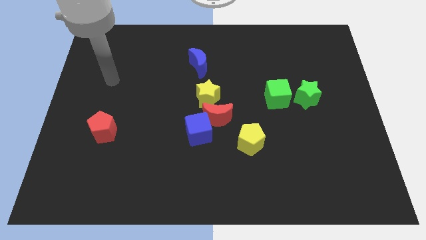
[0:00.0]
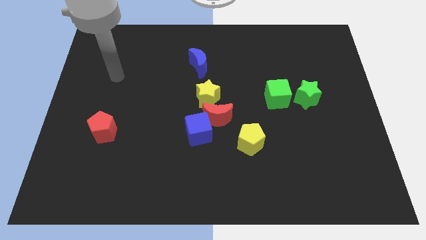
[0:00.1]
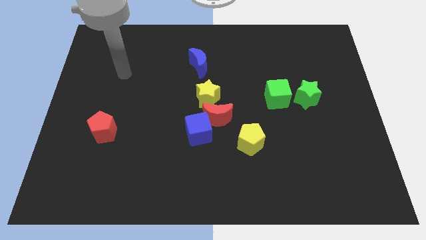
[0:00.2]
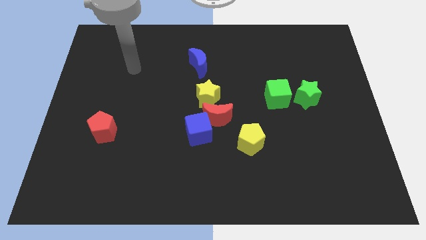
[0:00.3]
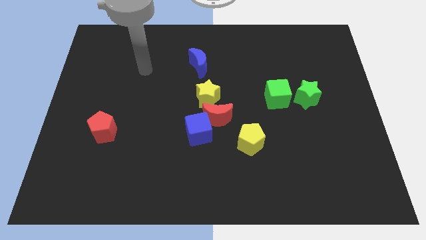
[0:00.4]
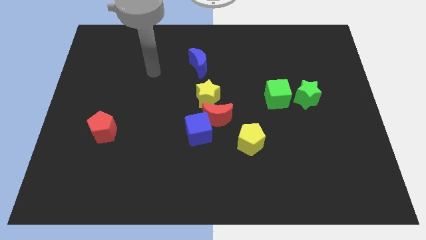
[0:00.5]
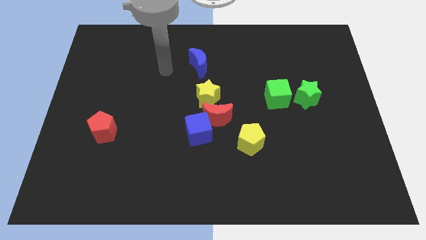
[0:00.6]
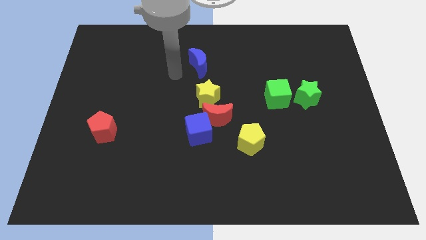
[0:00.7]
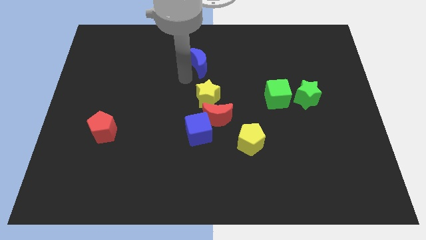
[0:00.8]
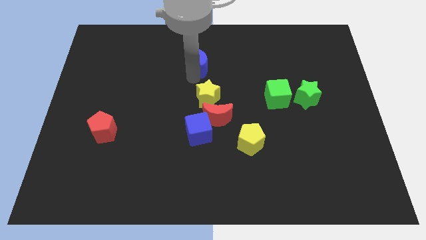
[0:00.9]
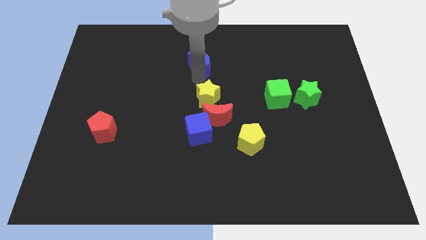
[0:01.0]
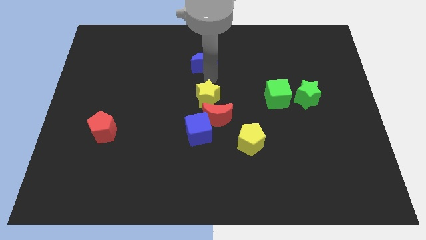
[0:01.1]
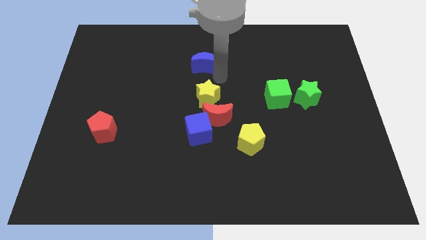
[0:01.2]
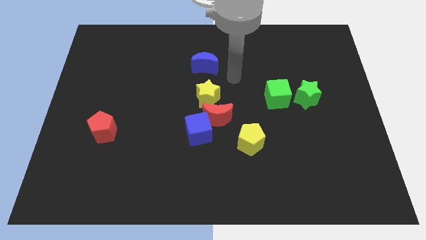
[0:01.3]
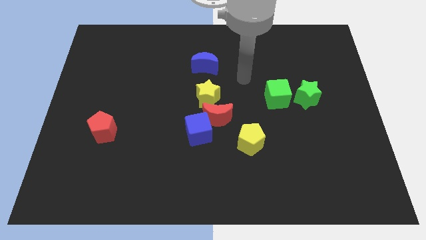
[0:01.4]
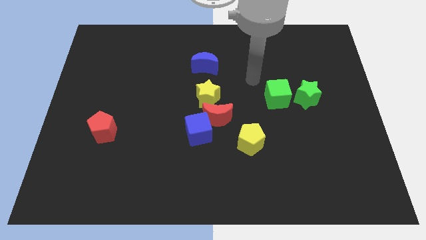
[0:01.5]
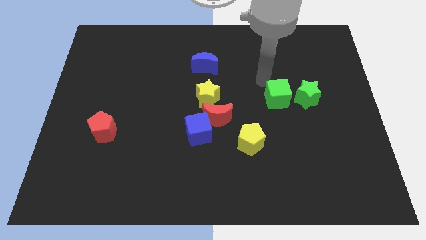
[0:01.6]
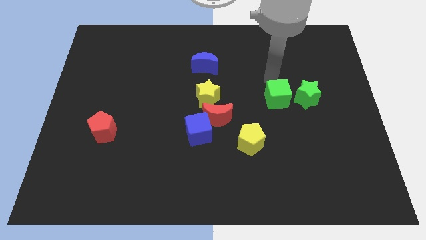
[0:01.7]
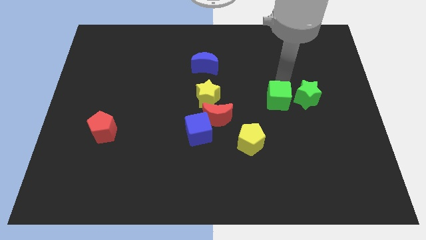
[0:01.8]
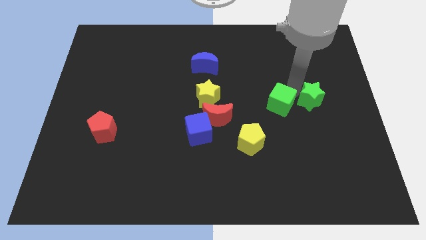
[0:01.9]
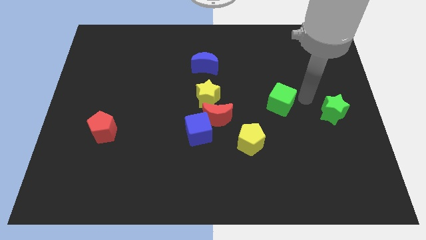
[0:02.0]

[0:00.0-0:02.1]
separate the green cube from the green star

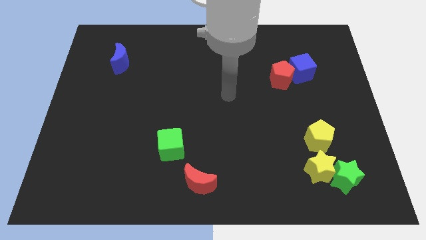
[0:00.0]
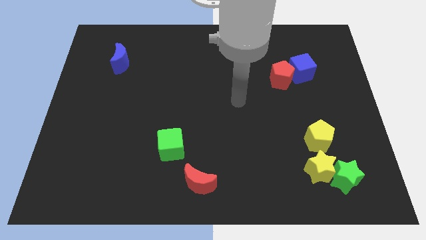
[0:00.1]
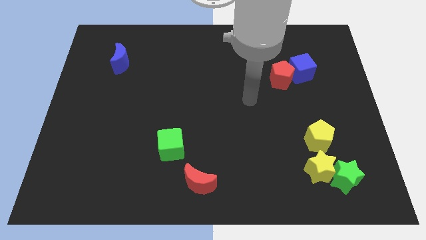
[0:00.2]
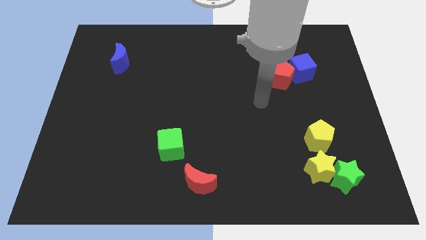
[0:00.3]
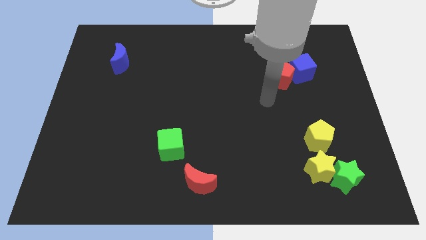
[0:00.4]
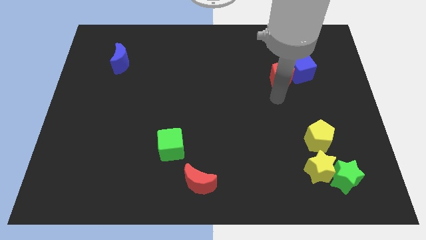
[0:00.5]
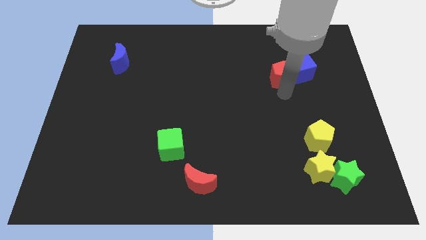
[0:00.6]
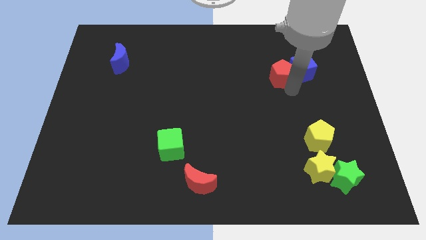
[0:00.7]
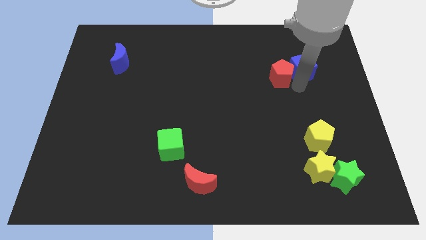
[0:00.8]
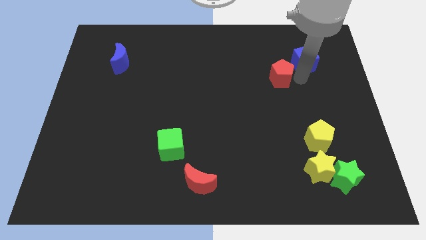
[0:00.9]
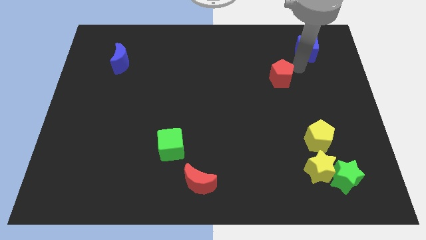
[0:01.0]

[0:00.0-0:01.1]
separate the red pentagon from the blue cube

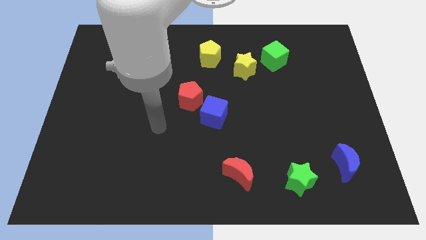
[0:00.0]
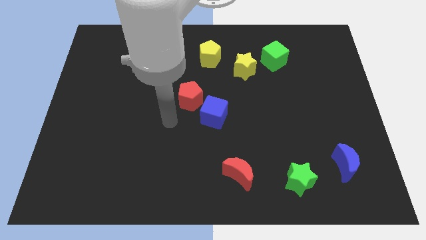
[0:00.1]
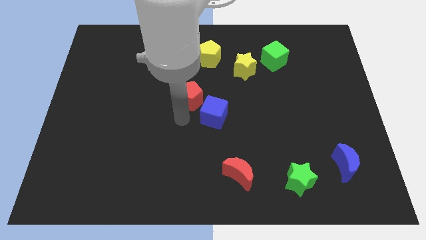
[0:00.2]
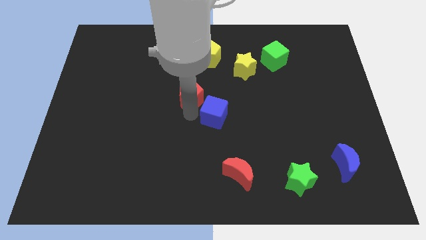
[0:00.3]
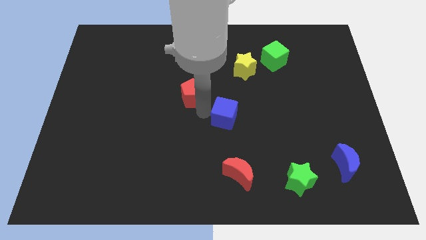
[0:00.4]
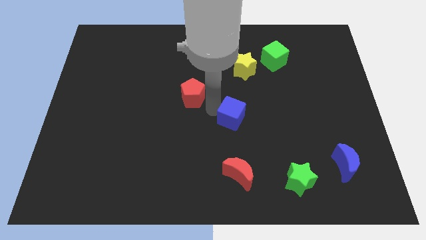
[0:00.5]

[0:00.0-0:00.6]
move the red pentagon away from the blue cube

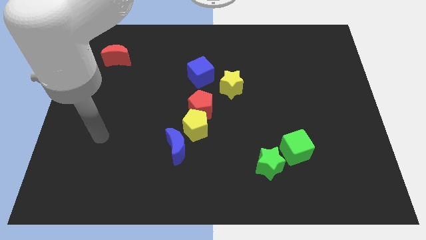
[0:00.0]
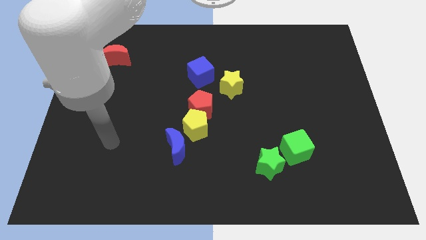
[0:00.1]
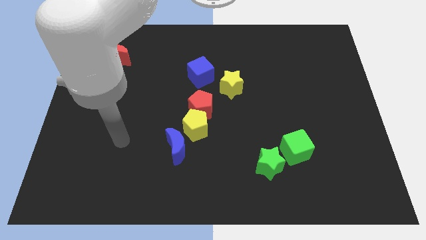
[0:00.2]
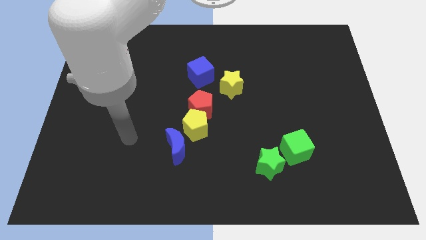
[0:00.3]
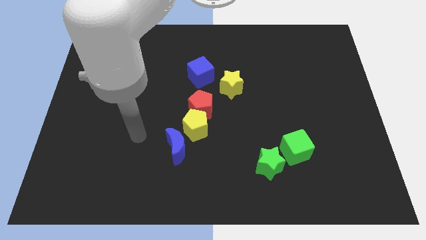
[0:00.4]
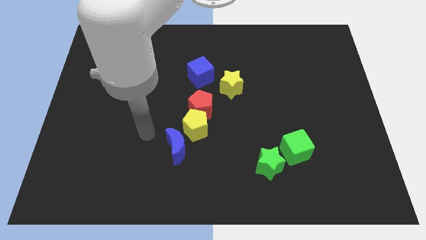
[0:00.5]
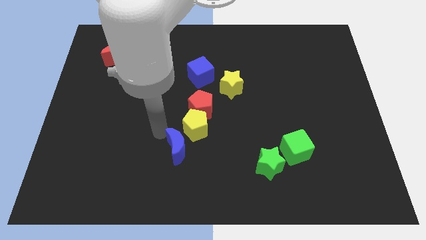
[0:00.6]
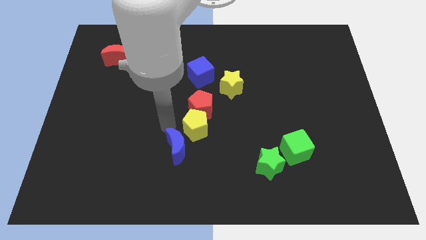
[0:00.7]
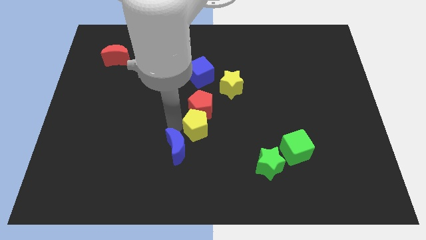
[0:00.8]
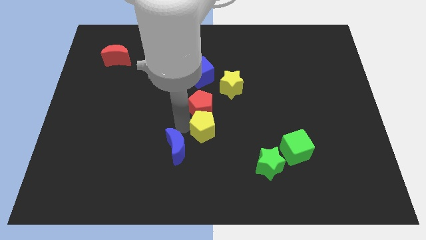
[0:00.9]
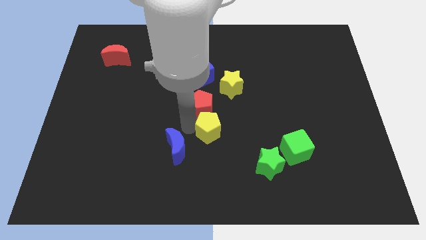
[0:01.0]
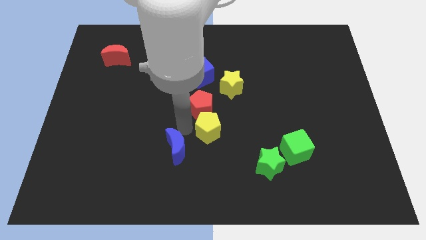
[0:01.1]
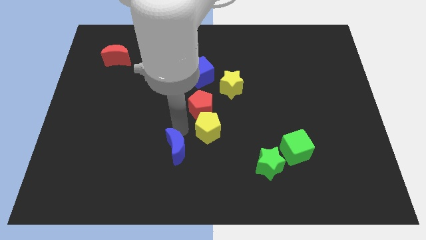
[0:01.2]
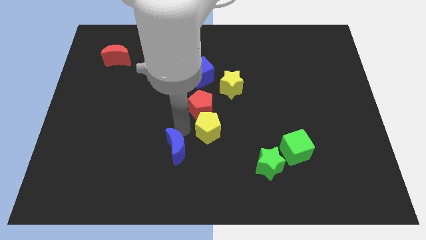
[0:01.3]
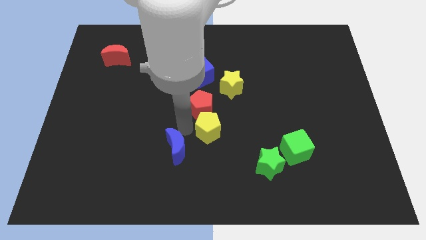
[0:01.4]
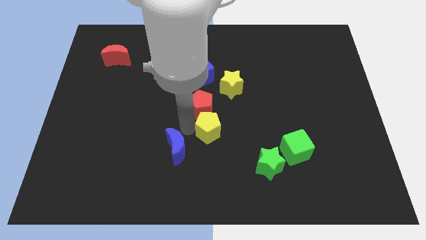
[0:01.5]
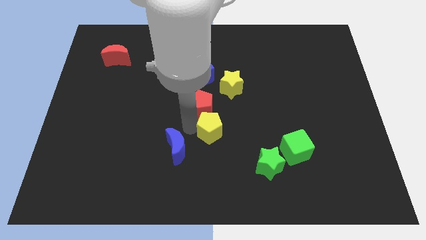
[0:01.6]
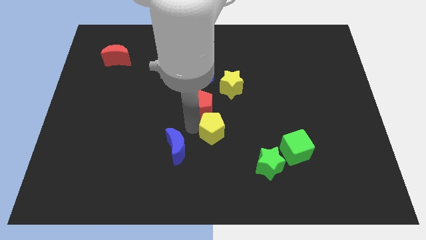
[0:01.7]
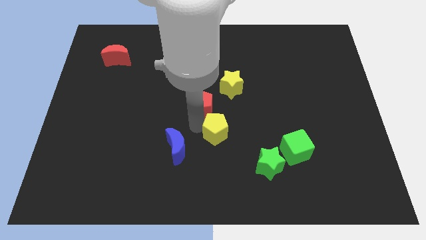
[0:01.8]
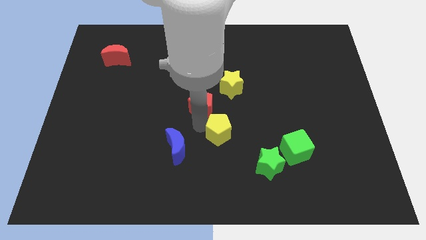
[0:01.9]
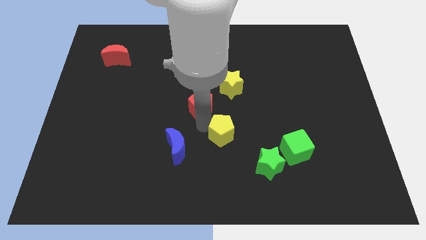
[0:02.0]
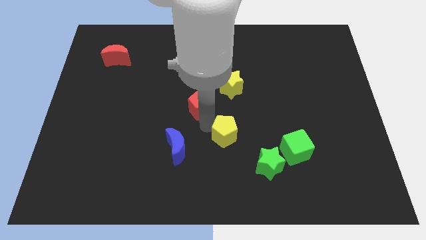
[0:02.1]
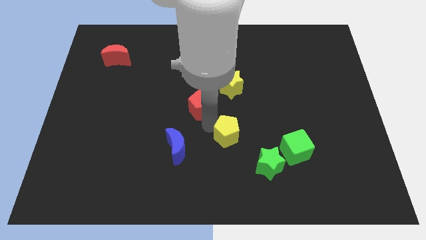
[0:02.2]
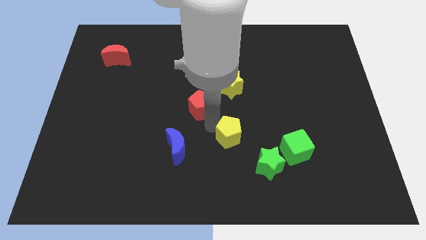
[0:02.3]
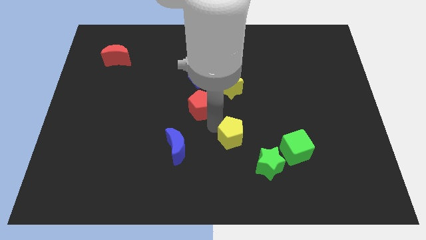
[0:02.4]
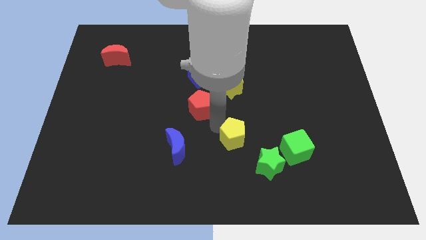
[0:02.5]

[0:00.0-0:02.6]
pull the yellow pentagon apart from the red pentagon and blue moon

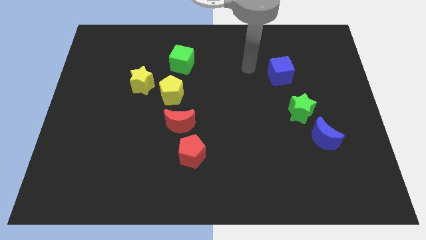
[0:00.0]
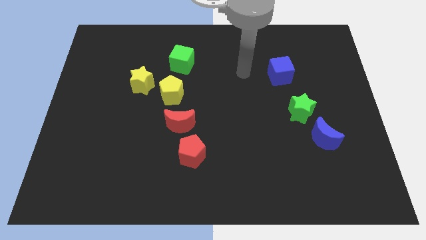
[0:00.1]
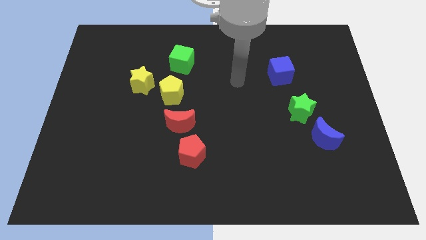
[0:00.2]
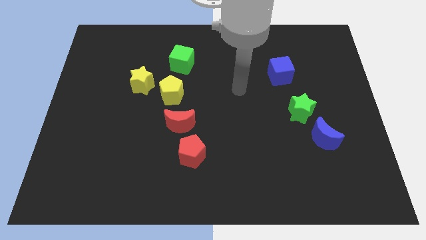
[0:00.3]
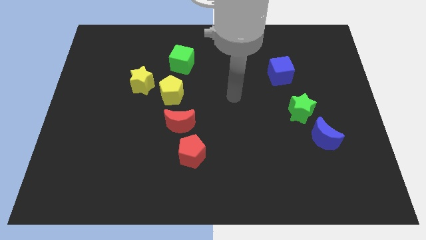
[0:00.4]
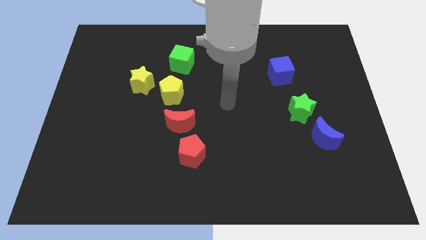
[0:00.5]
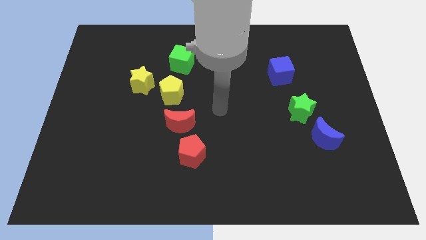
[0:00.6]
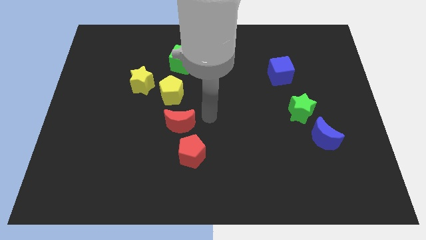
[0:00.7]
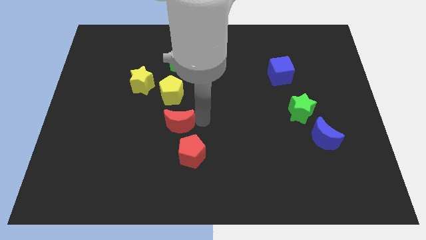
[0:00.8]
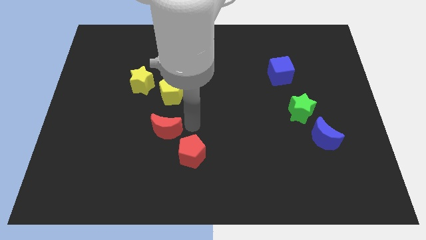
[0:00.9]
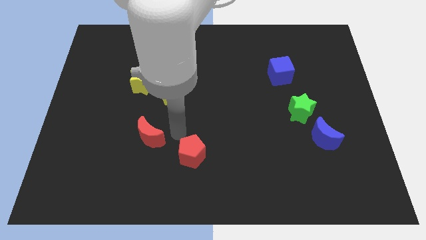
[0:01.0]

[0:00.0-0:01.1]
separate the red pentagon from the red moon

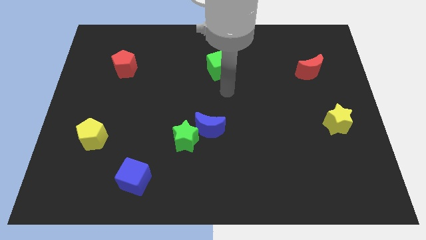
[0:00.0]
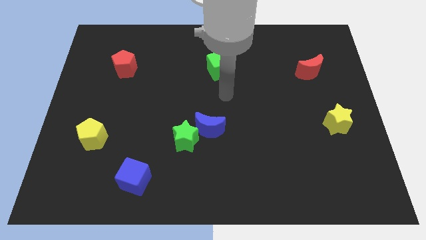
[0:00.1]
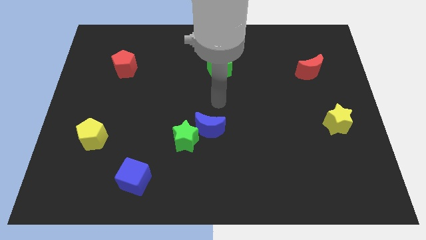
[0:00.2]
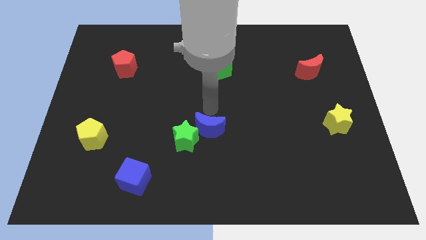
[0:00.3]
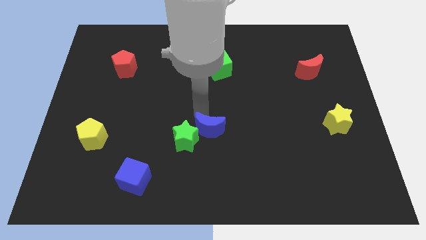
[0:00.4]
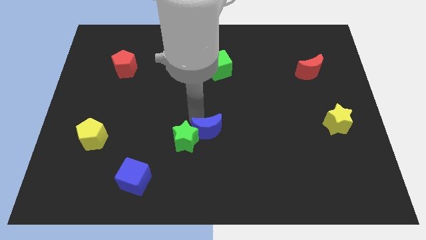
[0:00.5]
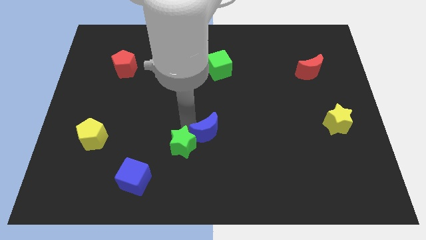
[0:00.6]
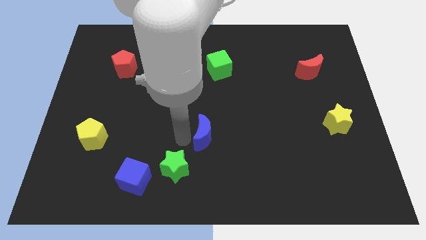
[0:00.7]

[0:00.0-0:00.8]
move the blue moon away from the green star

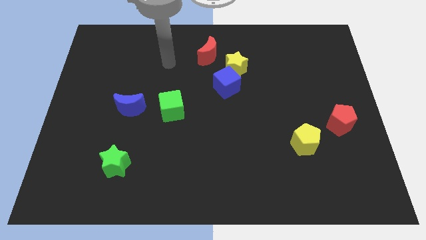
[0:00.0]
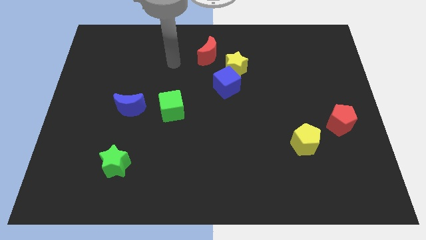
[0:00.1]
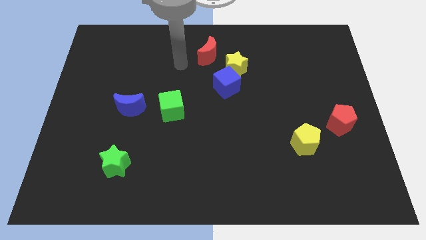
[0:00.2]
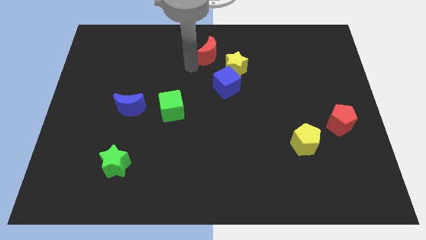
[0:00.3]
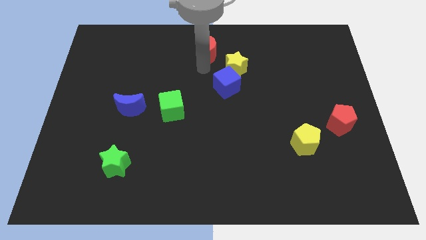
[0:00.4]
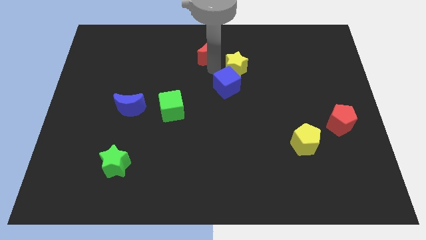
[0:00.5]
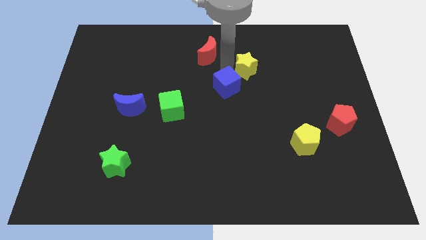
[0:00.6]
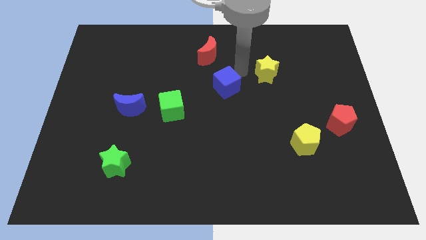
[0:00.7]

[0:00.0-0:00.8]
separate the blue cube from the yellow star

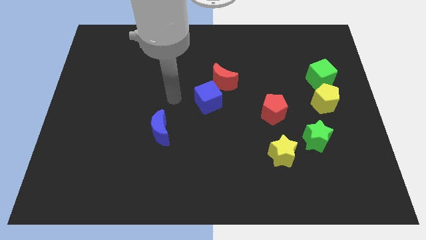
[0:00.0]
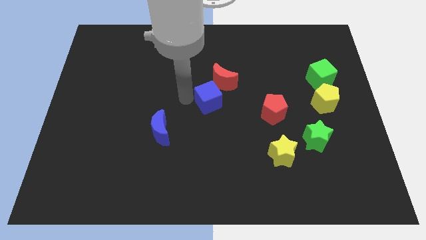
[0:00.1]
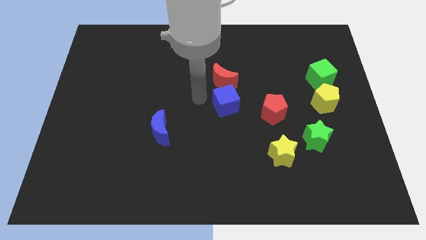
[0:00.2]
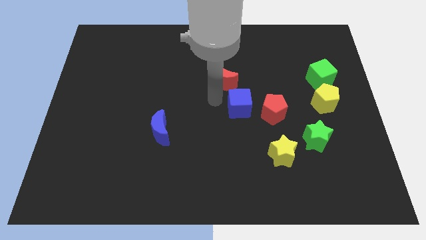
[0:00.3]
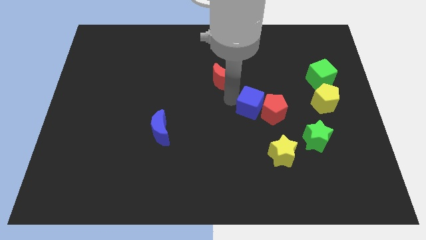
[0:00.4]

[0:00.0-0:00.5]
separate the red moon from the blue cube
